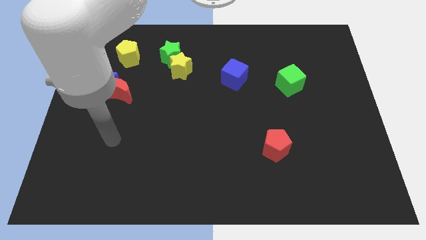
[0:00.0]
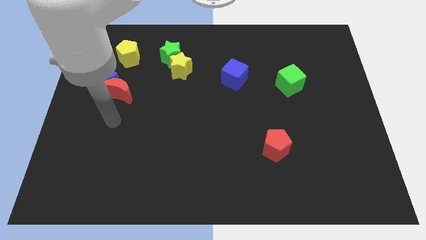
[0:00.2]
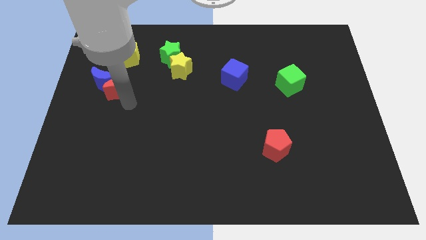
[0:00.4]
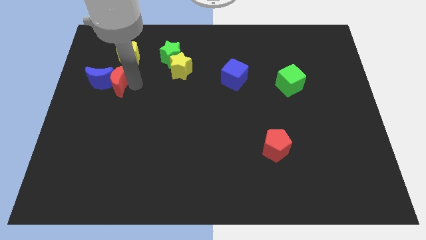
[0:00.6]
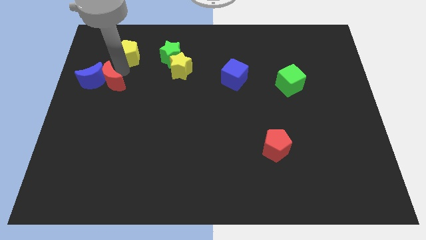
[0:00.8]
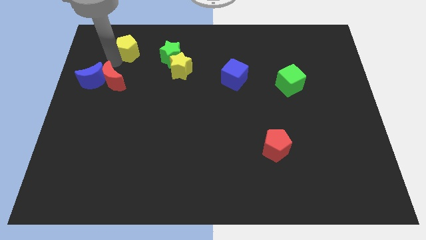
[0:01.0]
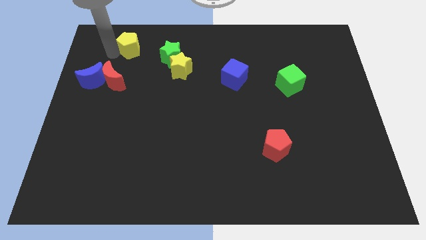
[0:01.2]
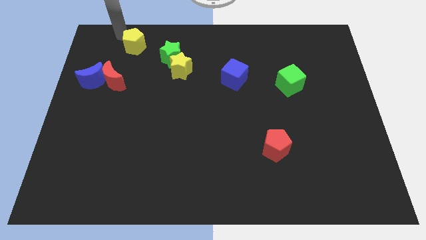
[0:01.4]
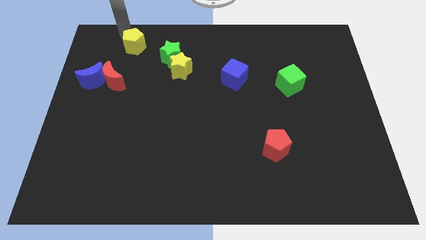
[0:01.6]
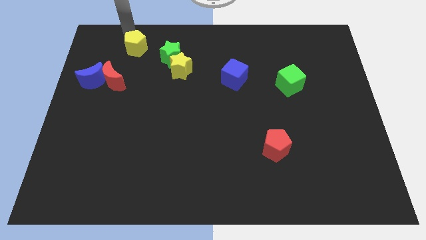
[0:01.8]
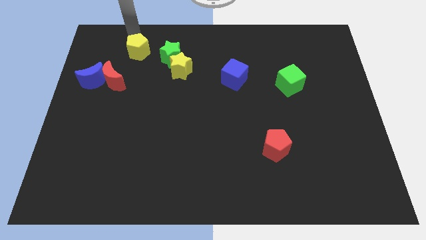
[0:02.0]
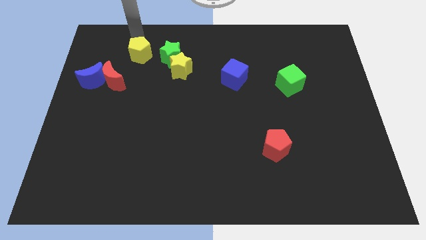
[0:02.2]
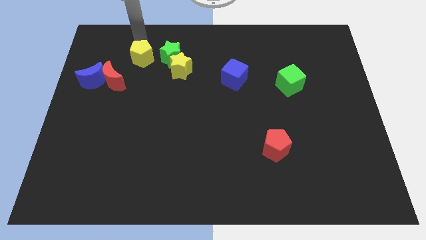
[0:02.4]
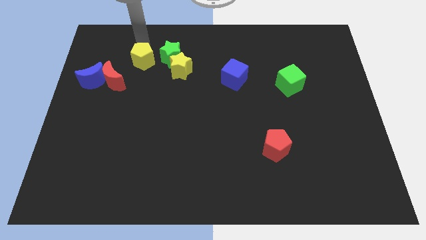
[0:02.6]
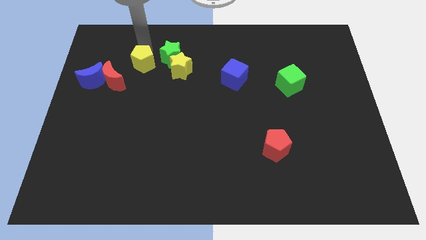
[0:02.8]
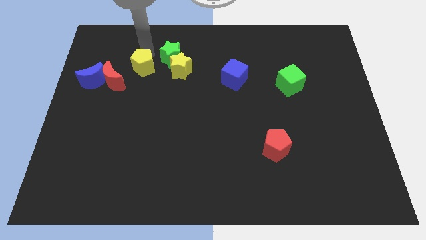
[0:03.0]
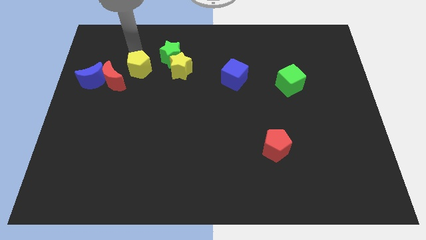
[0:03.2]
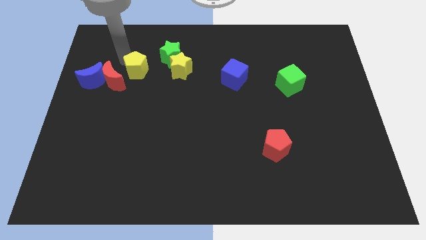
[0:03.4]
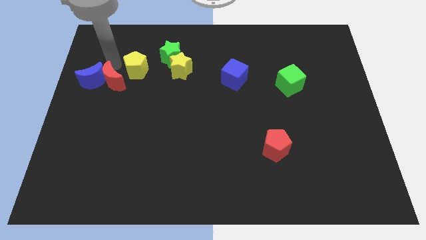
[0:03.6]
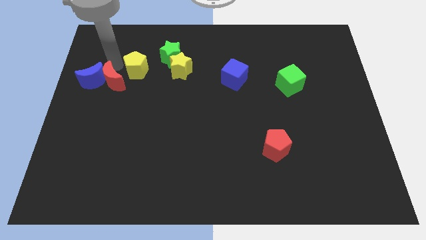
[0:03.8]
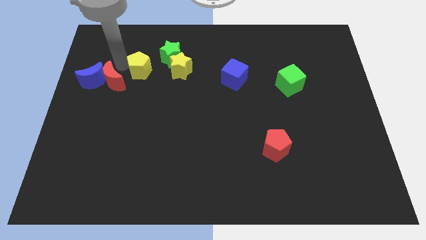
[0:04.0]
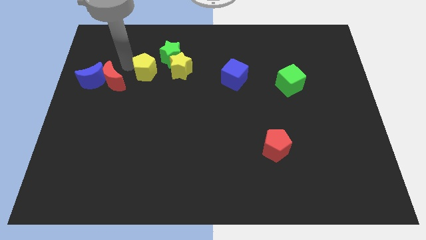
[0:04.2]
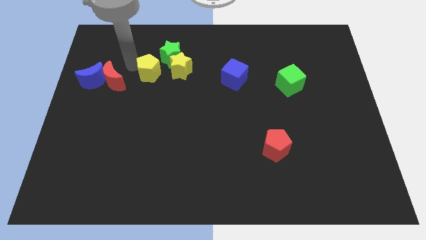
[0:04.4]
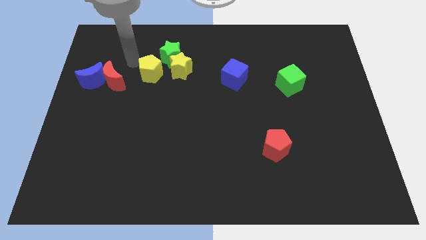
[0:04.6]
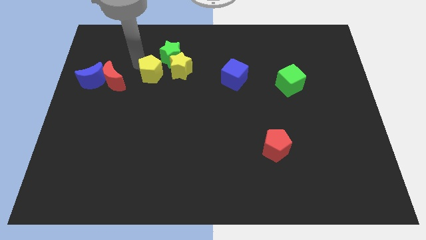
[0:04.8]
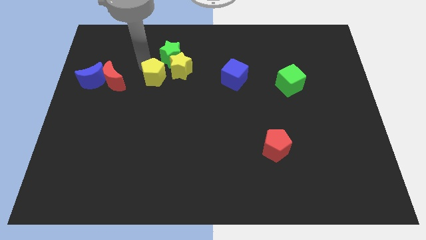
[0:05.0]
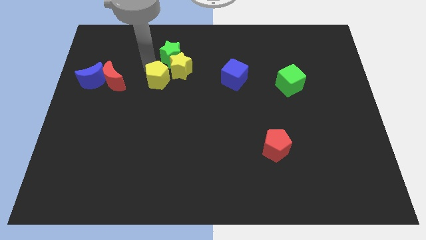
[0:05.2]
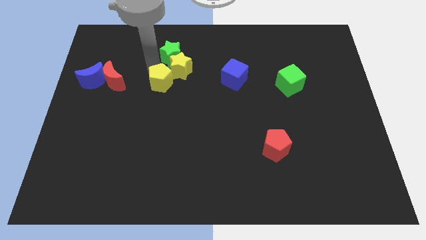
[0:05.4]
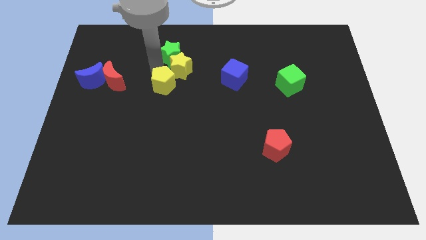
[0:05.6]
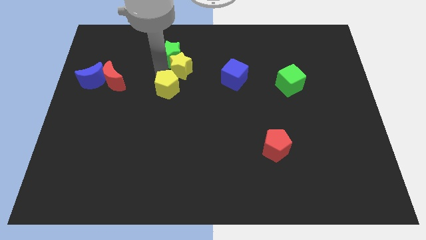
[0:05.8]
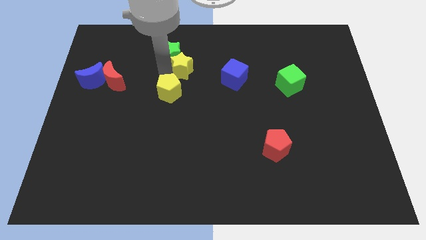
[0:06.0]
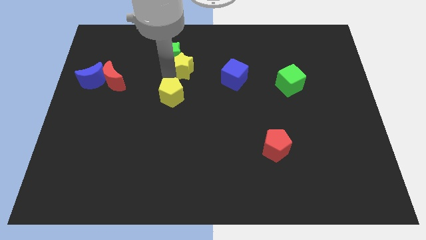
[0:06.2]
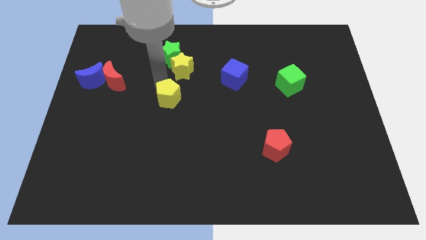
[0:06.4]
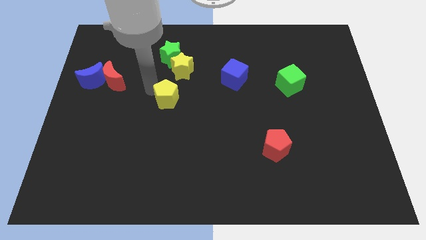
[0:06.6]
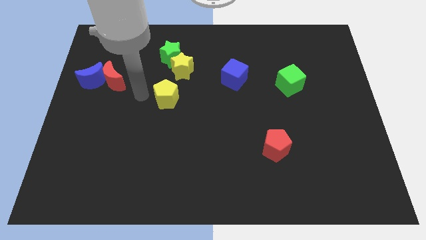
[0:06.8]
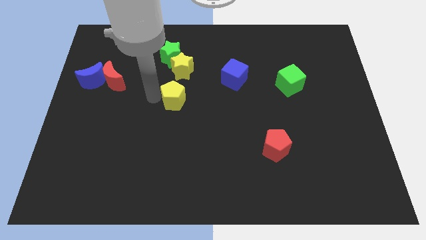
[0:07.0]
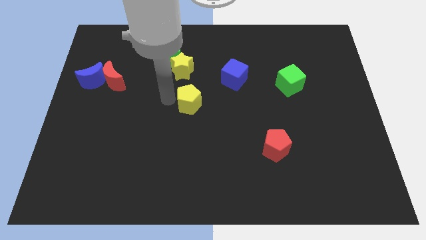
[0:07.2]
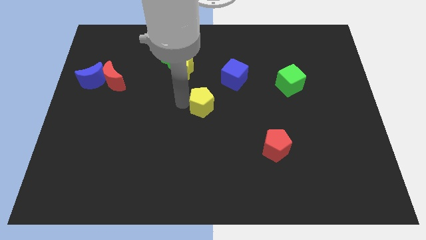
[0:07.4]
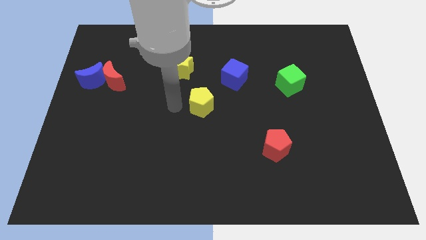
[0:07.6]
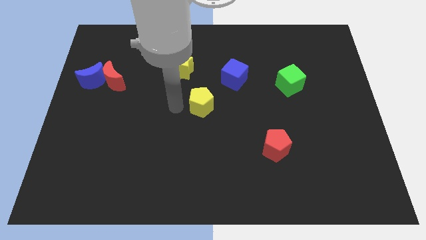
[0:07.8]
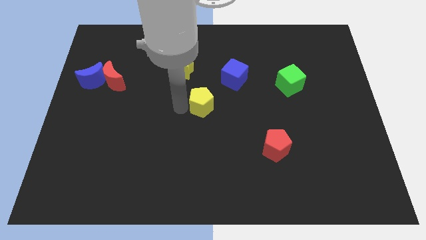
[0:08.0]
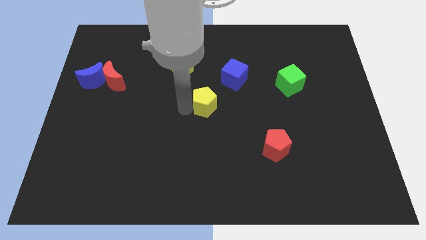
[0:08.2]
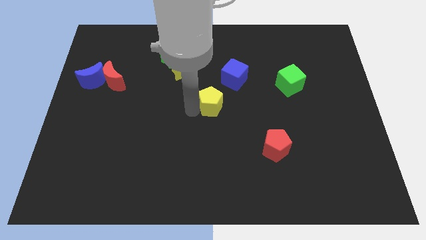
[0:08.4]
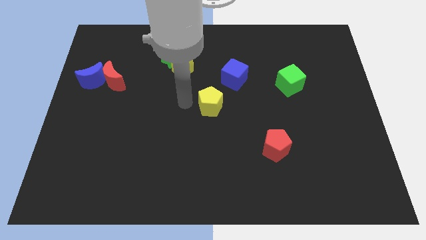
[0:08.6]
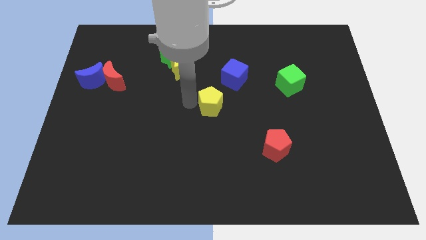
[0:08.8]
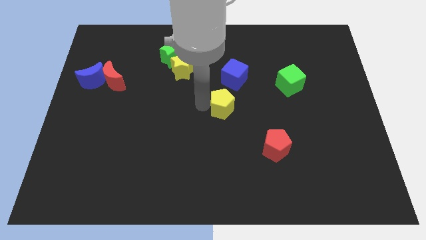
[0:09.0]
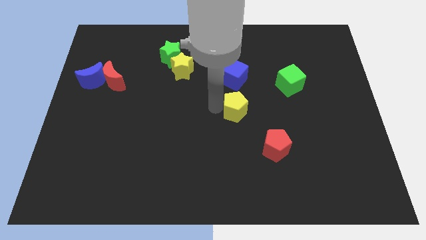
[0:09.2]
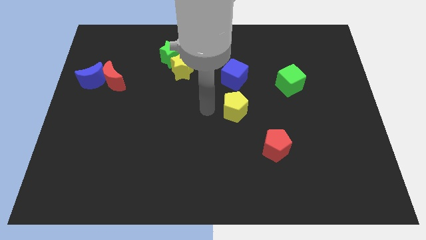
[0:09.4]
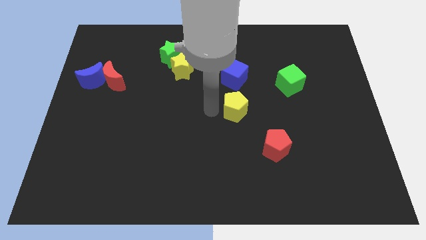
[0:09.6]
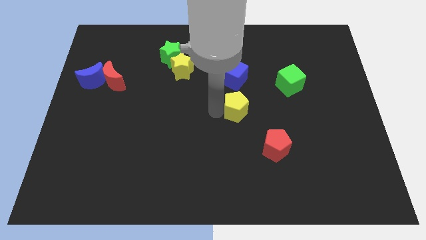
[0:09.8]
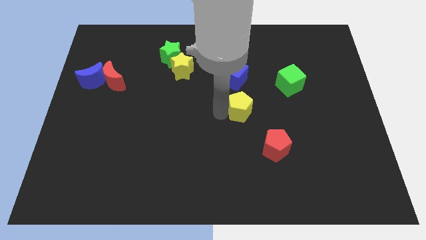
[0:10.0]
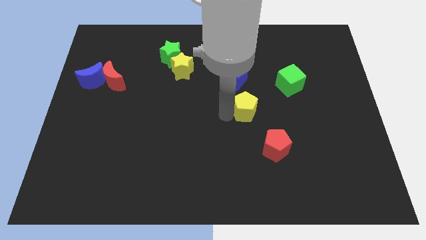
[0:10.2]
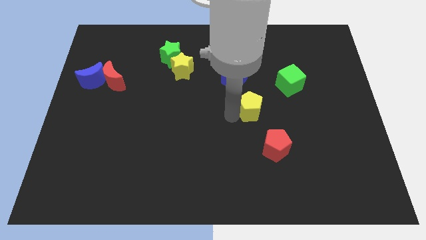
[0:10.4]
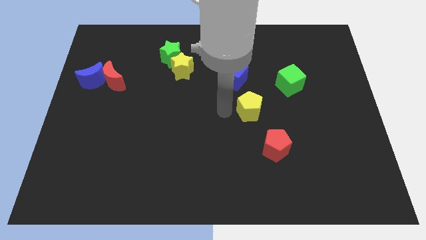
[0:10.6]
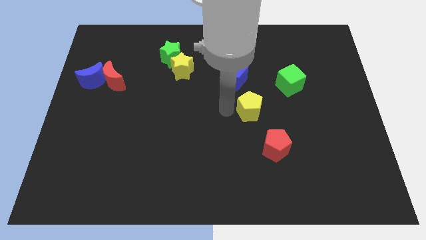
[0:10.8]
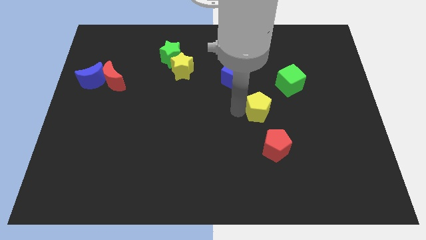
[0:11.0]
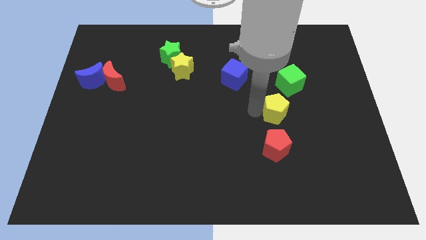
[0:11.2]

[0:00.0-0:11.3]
push the yellow pentagon to the bottom of the green cube

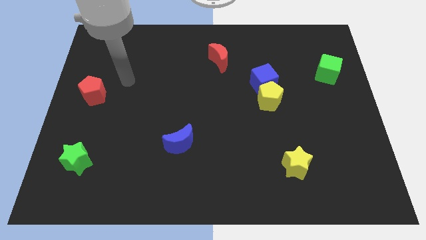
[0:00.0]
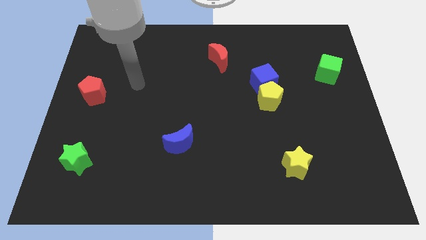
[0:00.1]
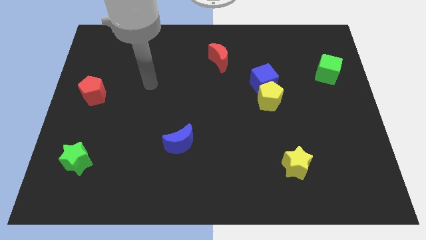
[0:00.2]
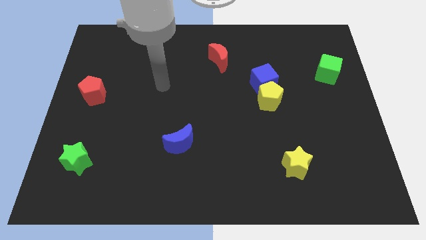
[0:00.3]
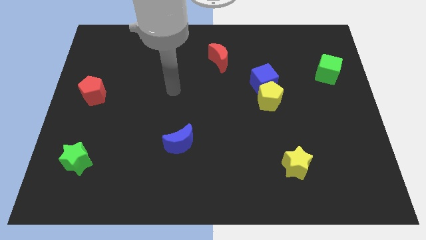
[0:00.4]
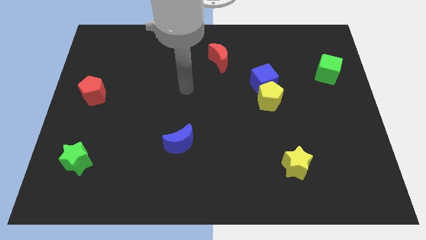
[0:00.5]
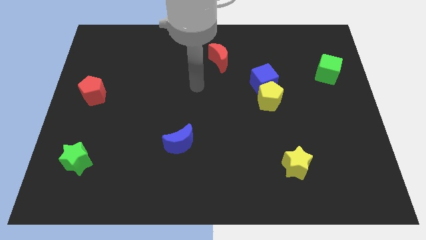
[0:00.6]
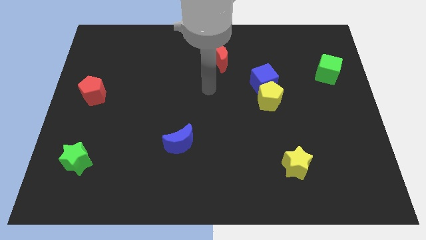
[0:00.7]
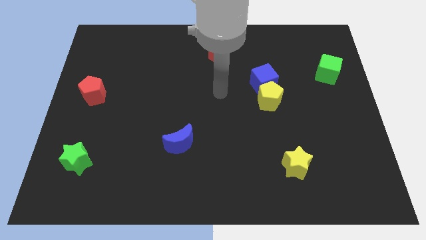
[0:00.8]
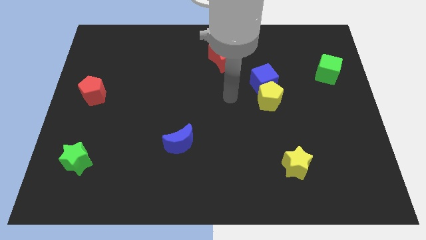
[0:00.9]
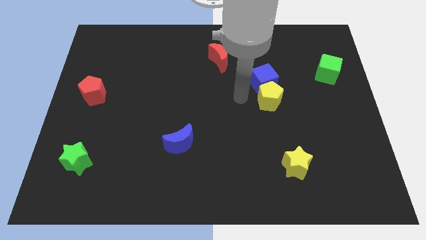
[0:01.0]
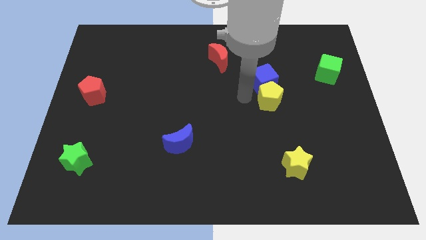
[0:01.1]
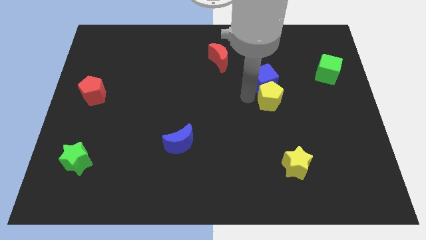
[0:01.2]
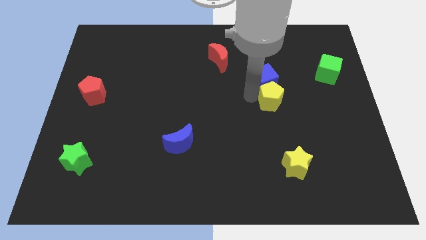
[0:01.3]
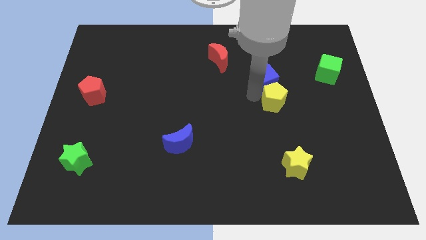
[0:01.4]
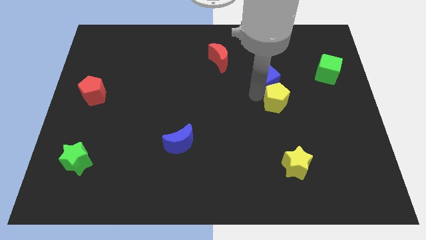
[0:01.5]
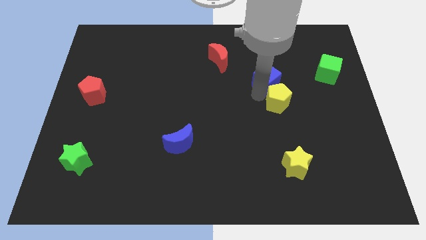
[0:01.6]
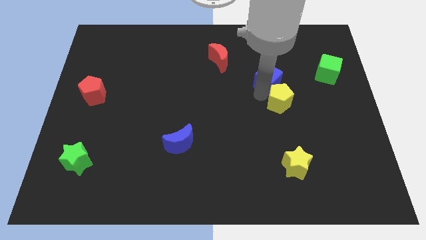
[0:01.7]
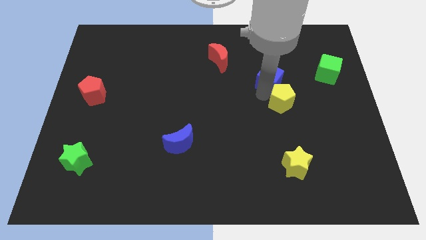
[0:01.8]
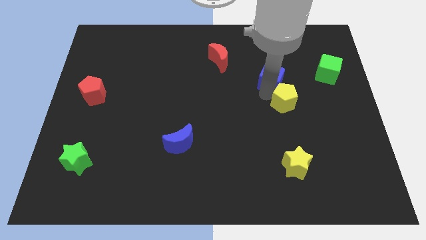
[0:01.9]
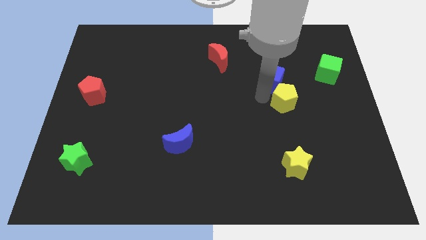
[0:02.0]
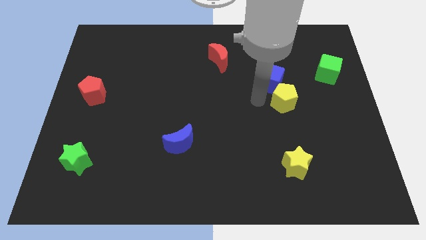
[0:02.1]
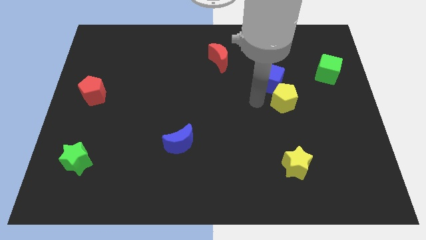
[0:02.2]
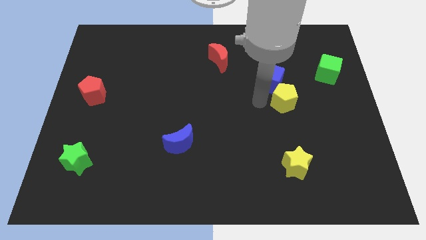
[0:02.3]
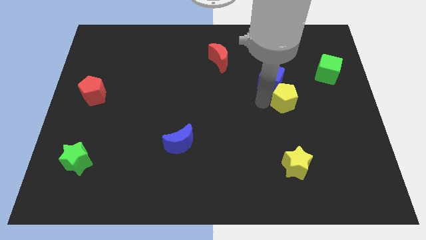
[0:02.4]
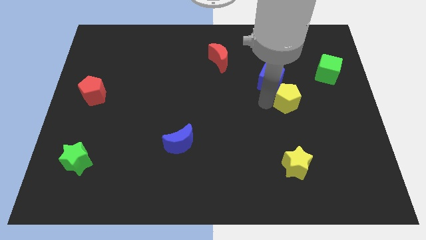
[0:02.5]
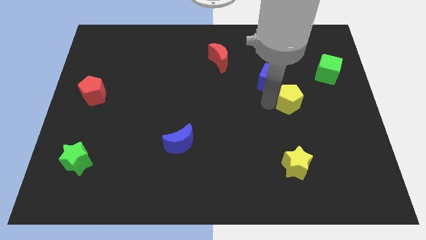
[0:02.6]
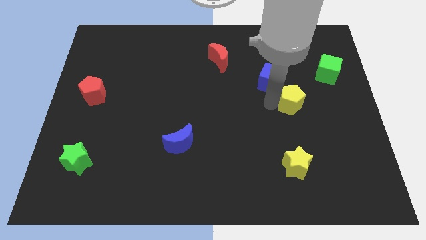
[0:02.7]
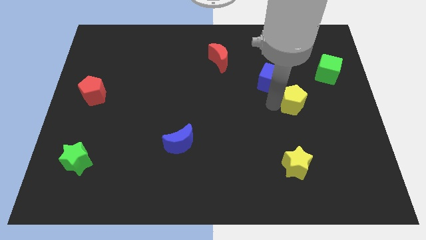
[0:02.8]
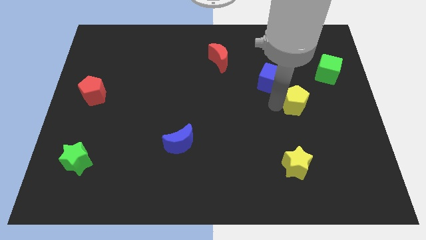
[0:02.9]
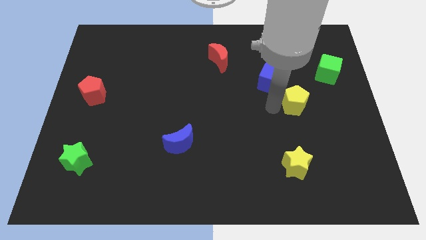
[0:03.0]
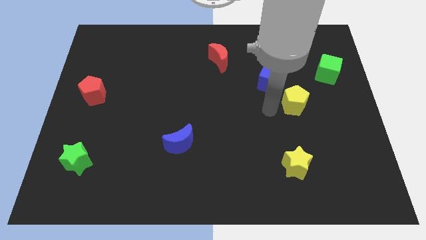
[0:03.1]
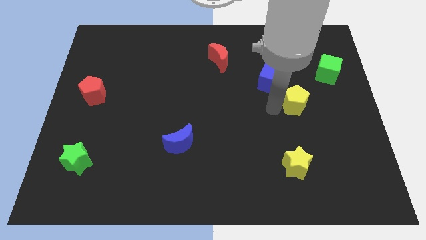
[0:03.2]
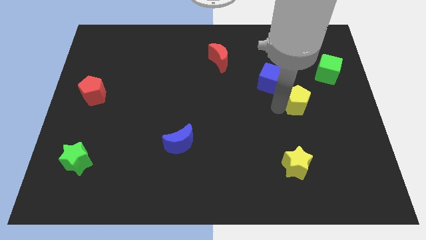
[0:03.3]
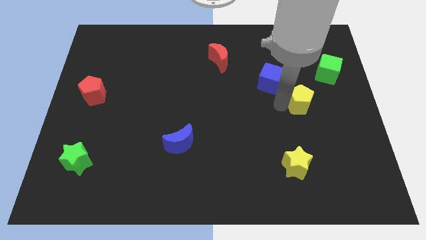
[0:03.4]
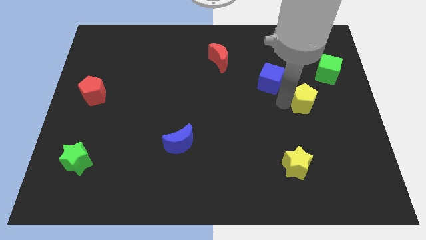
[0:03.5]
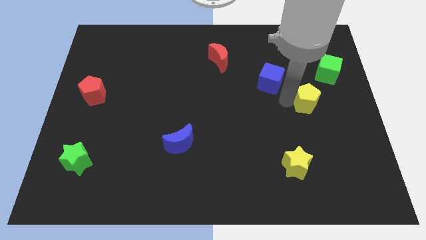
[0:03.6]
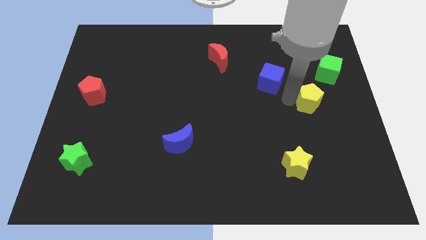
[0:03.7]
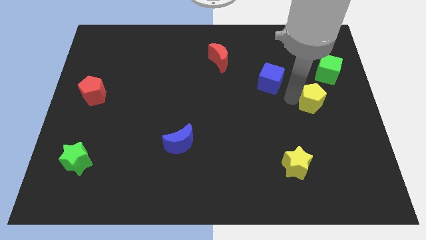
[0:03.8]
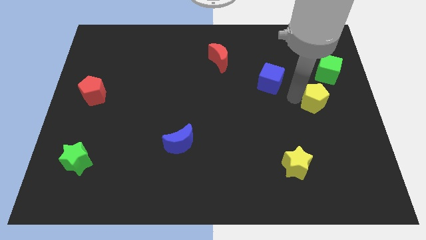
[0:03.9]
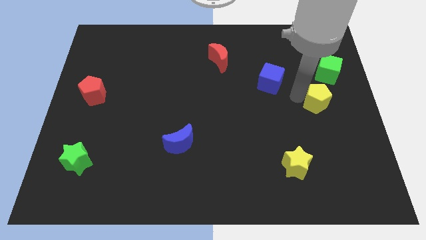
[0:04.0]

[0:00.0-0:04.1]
move the yellow pentagon to the bottom side of the green cube
